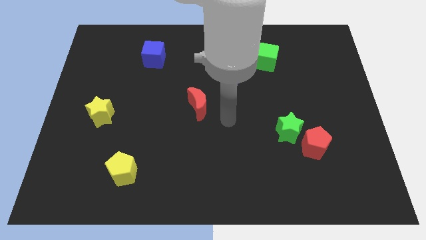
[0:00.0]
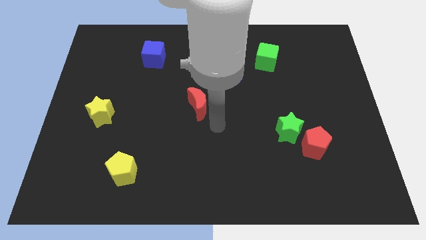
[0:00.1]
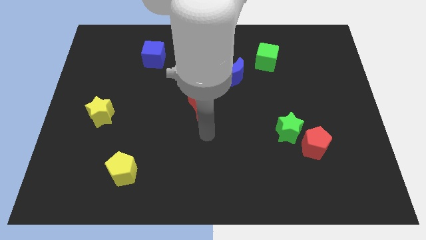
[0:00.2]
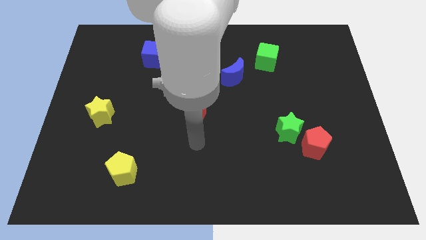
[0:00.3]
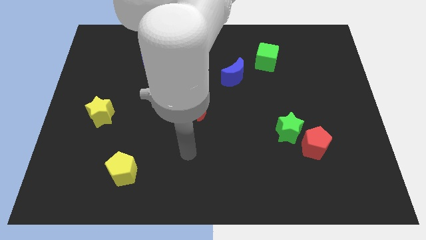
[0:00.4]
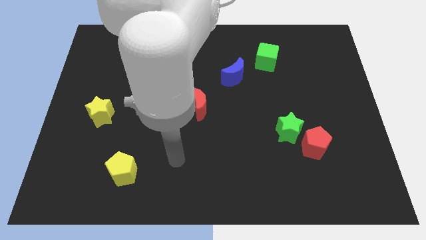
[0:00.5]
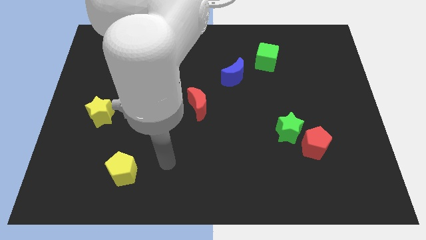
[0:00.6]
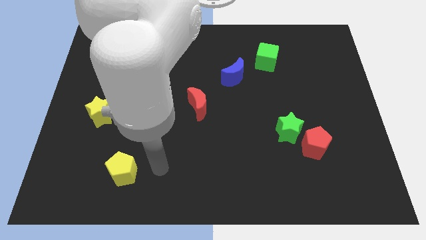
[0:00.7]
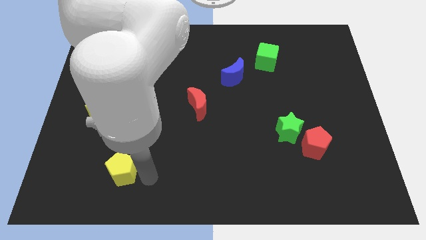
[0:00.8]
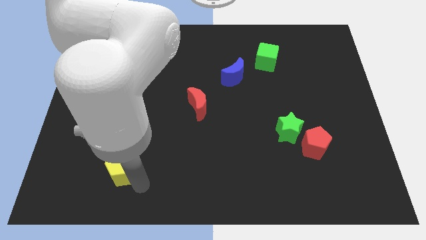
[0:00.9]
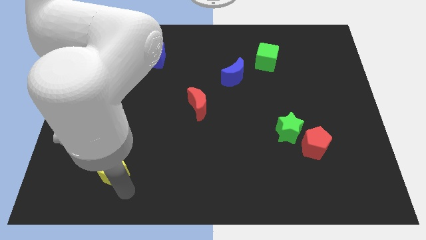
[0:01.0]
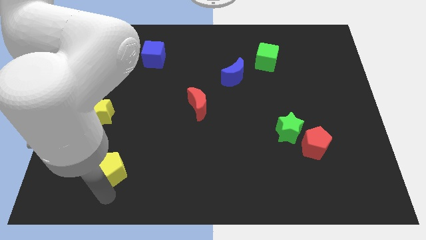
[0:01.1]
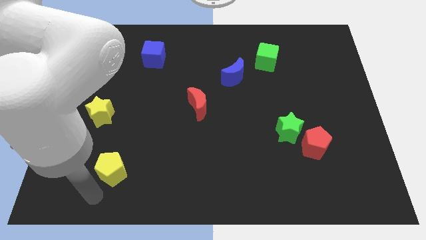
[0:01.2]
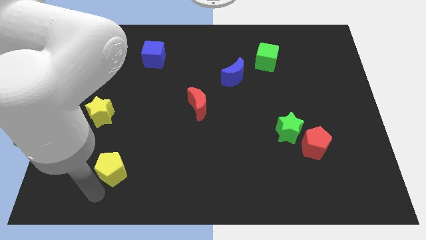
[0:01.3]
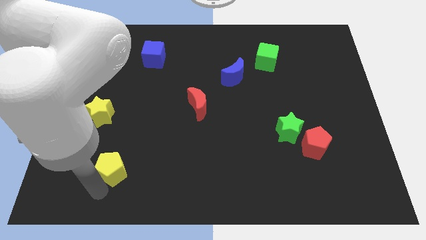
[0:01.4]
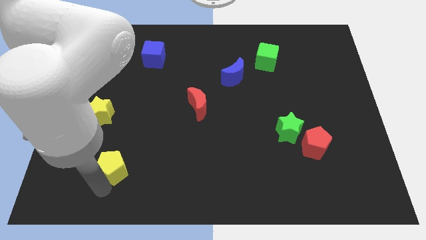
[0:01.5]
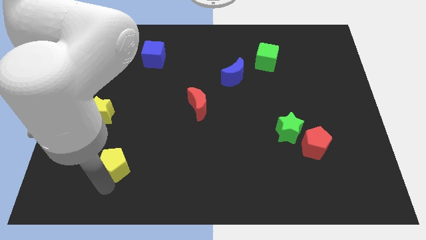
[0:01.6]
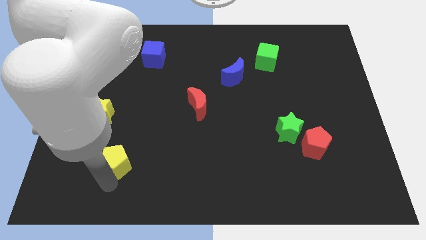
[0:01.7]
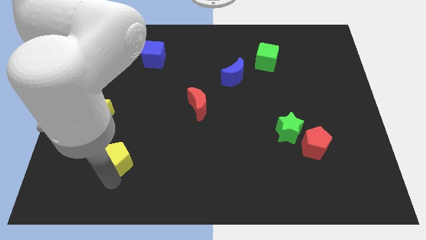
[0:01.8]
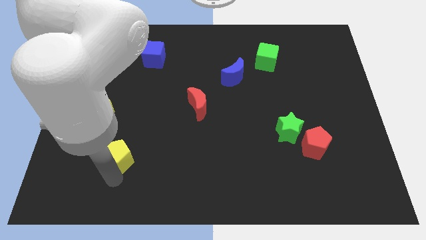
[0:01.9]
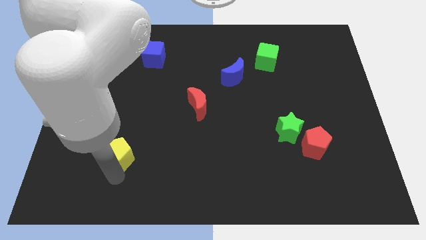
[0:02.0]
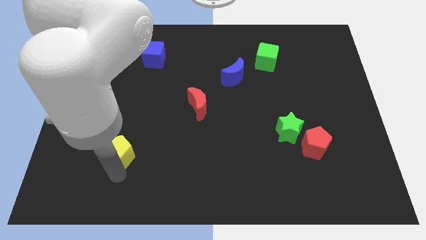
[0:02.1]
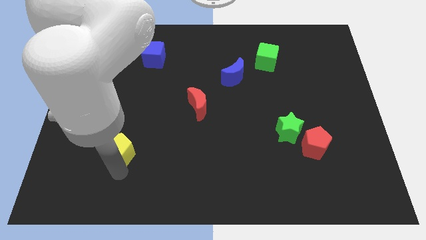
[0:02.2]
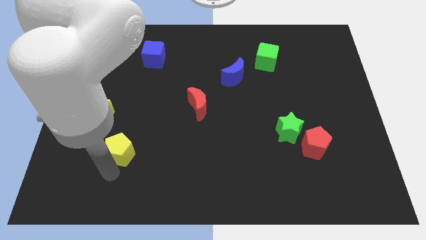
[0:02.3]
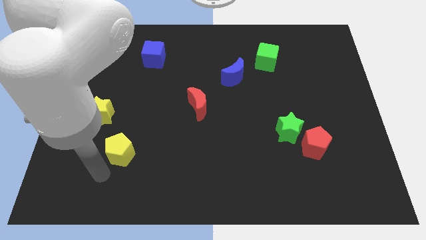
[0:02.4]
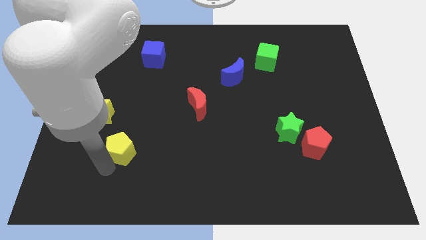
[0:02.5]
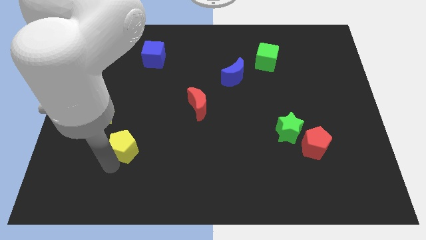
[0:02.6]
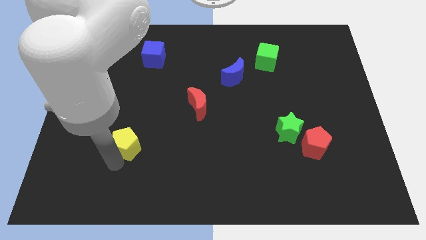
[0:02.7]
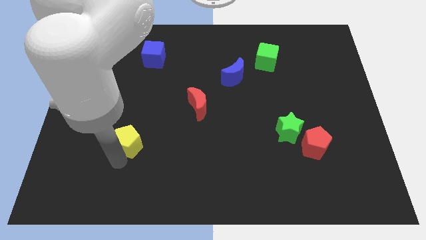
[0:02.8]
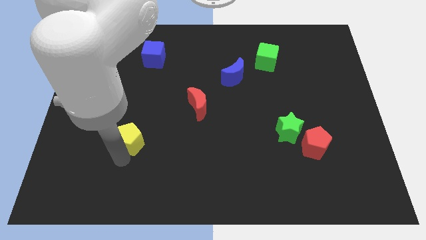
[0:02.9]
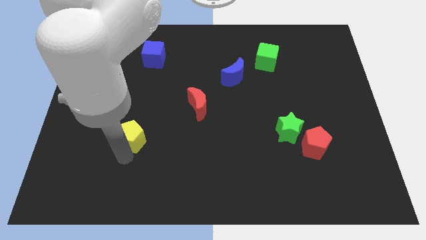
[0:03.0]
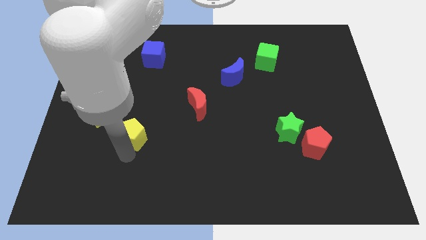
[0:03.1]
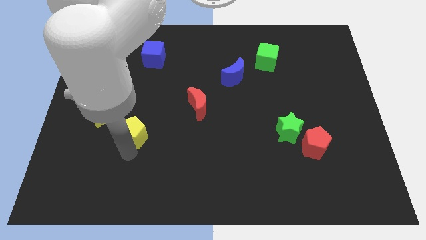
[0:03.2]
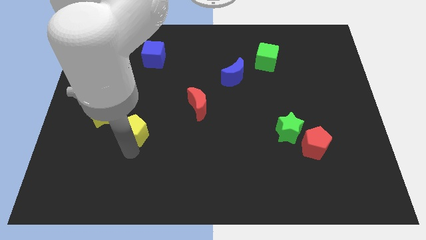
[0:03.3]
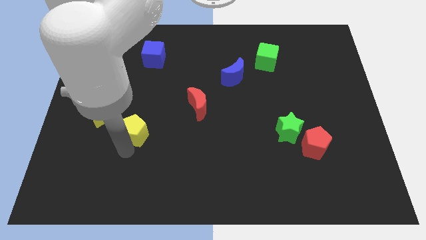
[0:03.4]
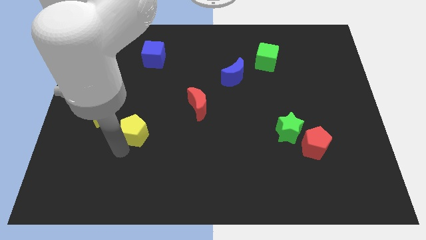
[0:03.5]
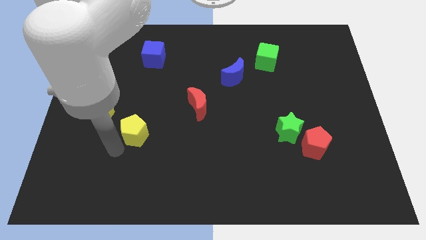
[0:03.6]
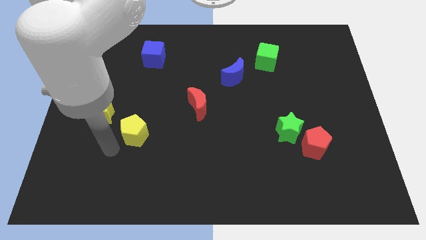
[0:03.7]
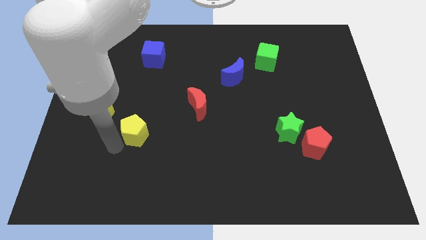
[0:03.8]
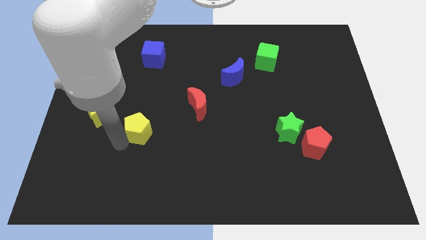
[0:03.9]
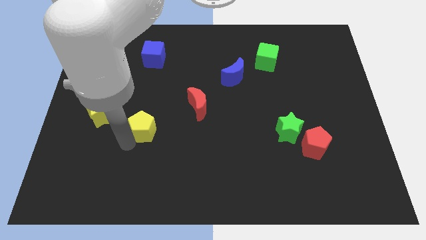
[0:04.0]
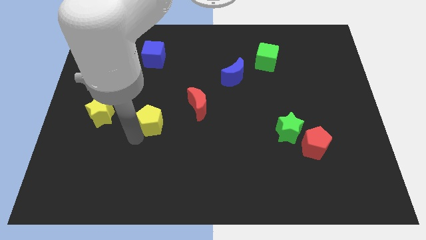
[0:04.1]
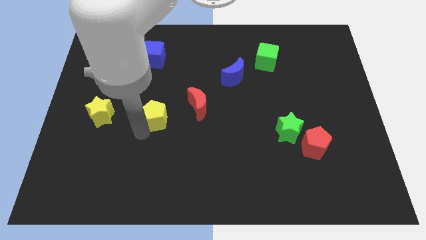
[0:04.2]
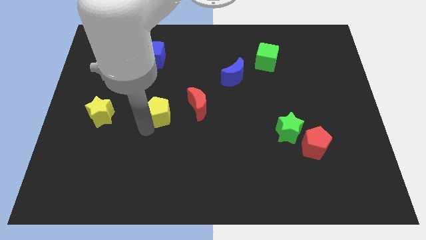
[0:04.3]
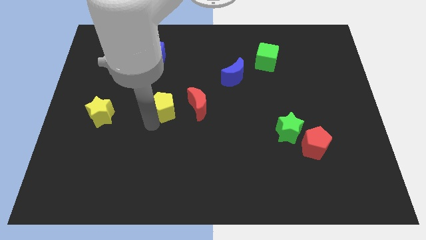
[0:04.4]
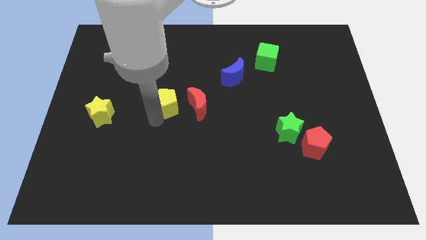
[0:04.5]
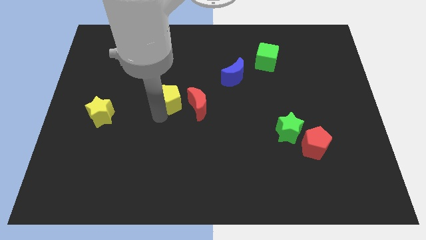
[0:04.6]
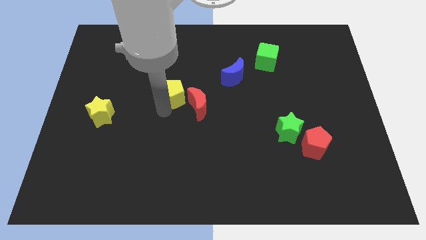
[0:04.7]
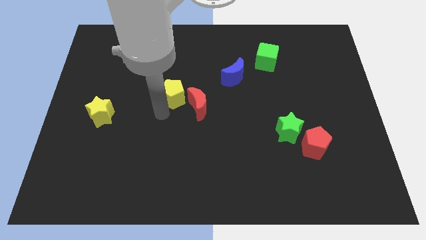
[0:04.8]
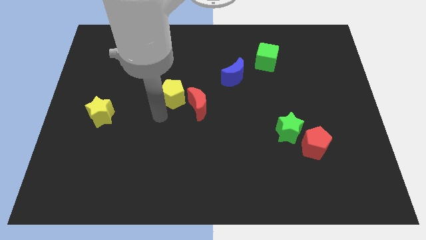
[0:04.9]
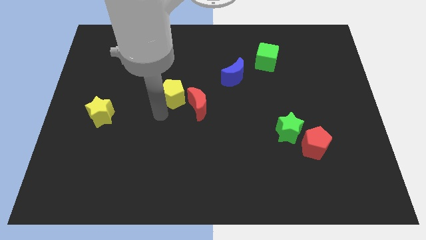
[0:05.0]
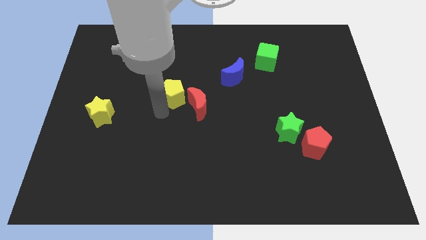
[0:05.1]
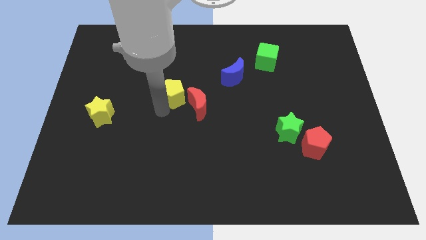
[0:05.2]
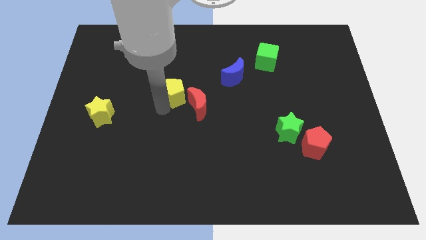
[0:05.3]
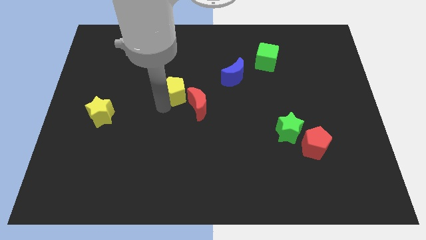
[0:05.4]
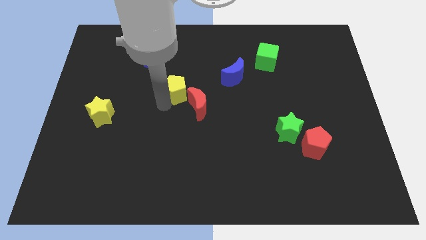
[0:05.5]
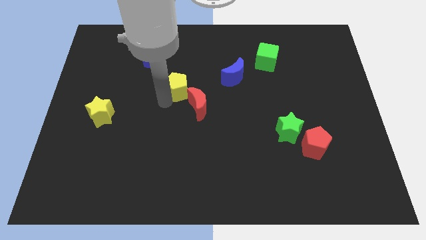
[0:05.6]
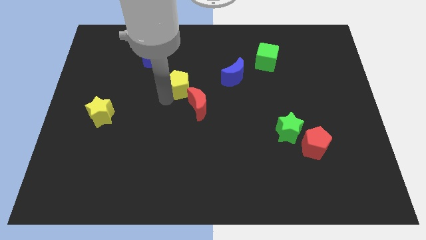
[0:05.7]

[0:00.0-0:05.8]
slide the yellow pentagon to the top of the red moon

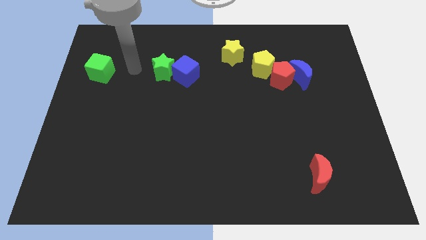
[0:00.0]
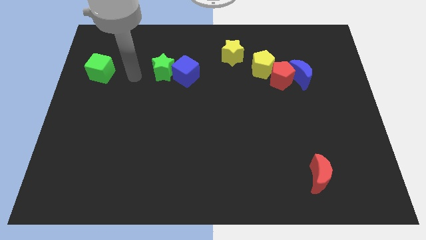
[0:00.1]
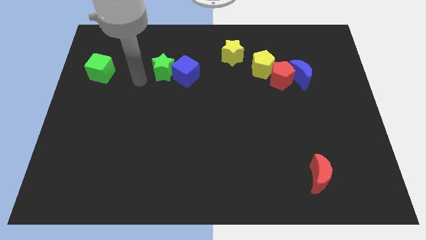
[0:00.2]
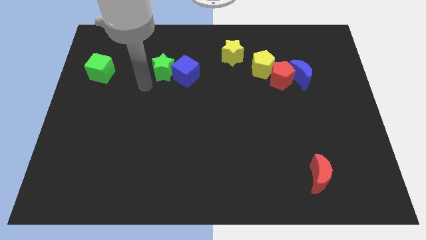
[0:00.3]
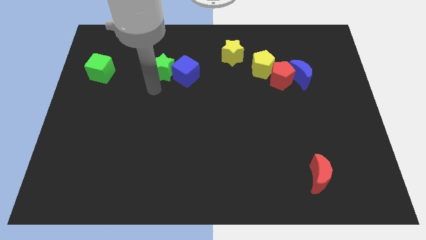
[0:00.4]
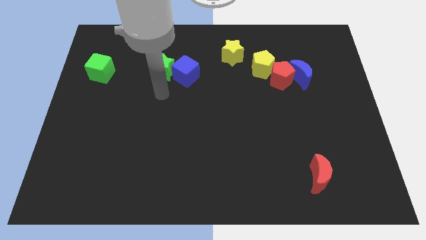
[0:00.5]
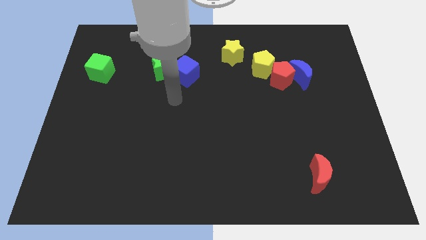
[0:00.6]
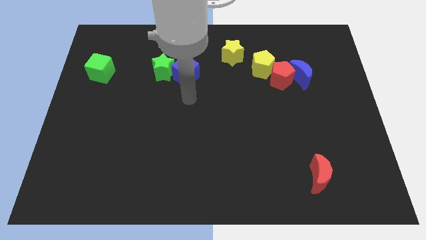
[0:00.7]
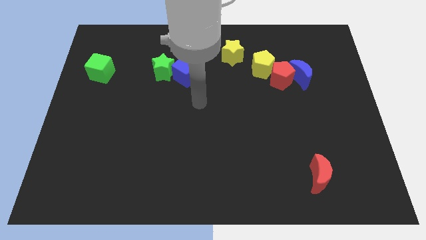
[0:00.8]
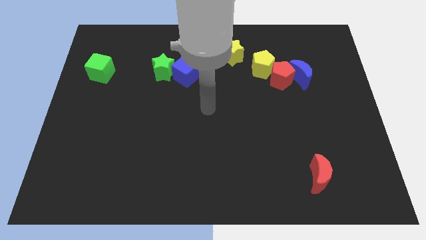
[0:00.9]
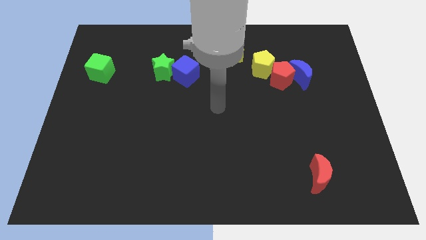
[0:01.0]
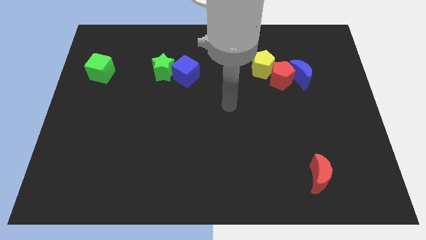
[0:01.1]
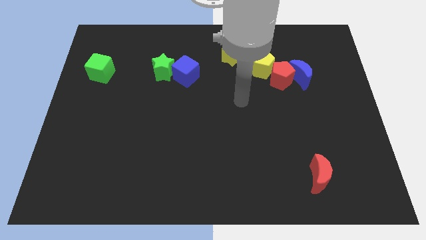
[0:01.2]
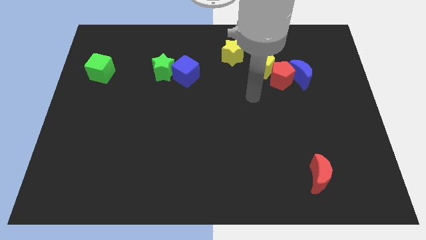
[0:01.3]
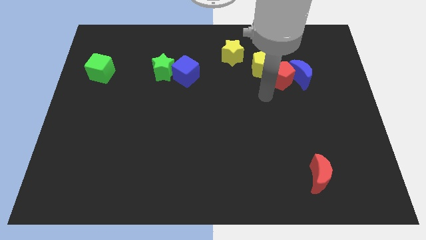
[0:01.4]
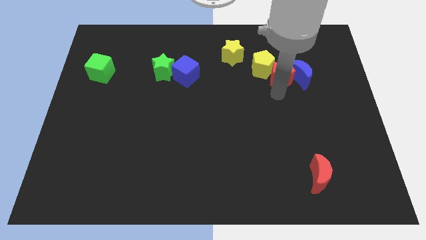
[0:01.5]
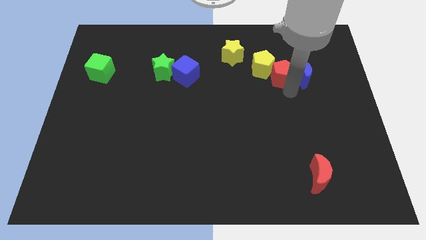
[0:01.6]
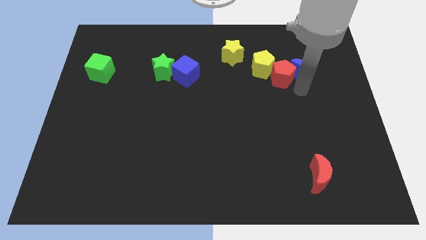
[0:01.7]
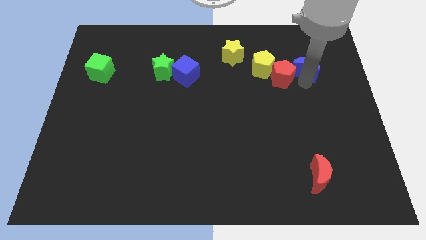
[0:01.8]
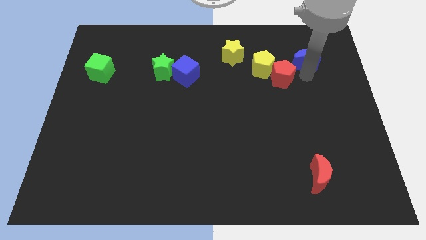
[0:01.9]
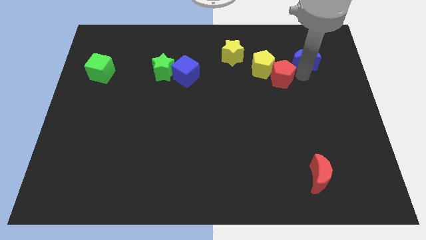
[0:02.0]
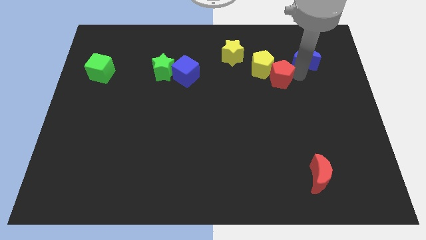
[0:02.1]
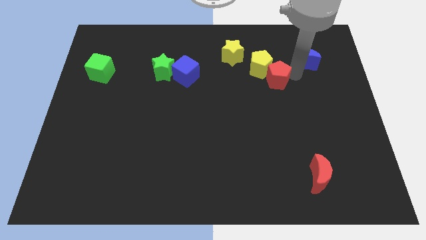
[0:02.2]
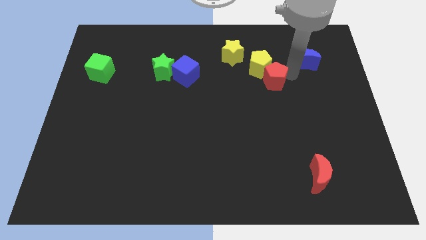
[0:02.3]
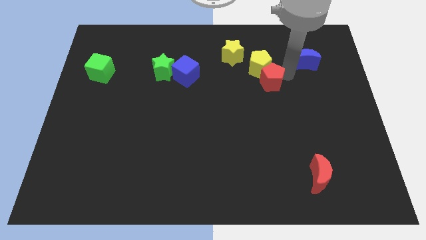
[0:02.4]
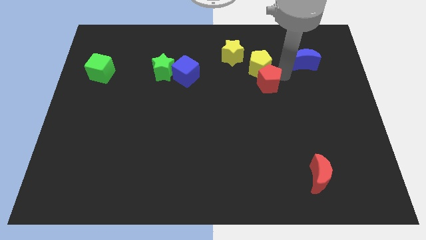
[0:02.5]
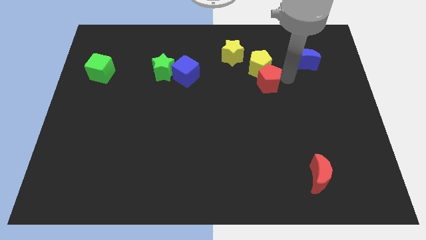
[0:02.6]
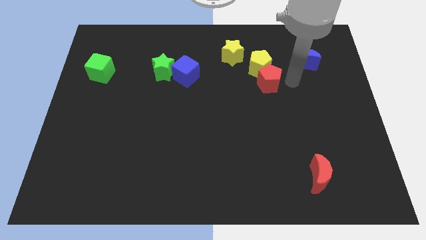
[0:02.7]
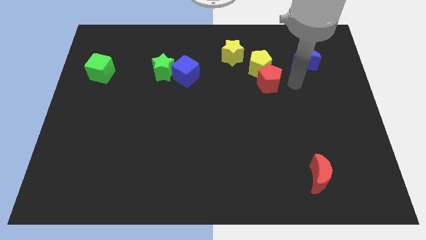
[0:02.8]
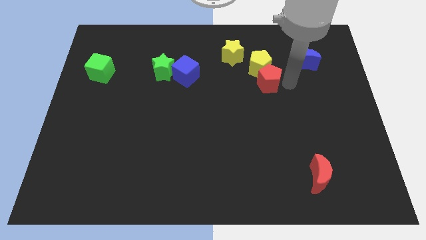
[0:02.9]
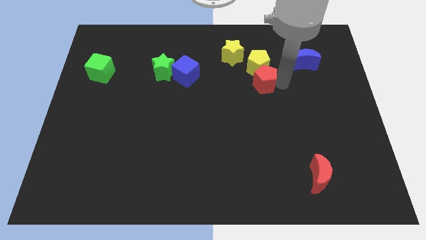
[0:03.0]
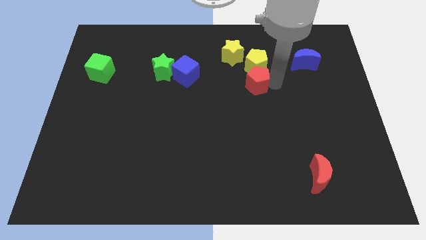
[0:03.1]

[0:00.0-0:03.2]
slide the red pentagon to the bottom left side of the yellow pentagon
